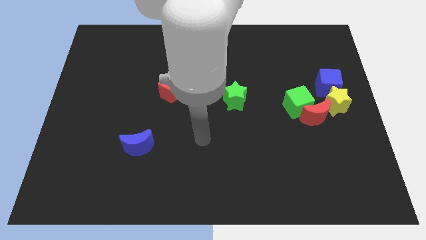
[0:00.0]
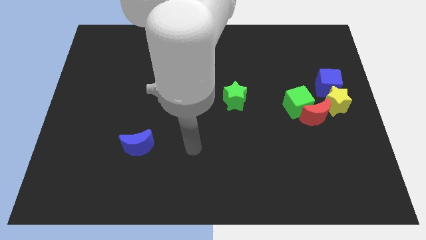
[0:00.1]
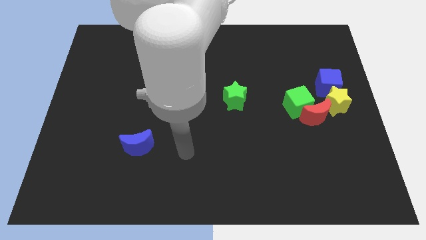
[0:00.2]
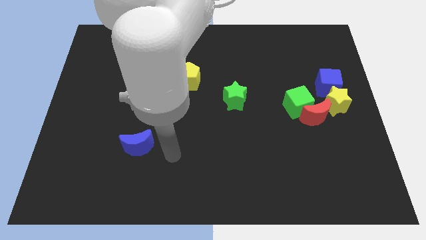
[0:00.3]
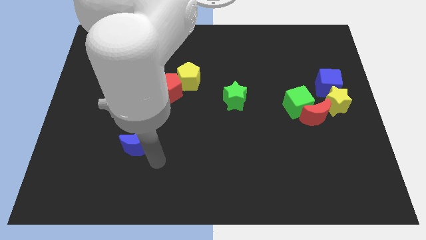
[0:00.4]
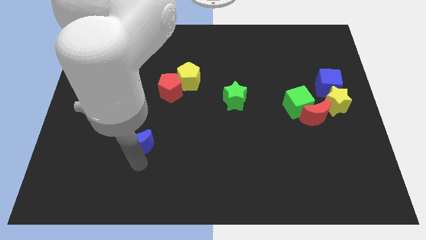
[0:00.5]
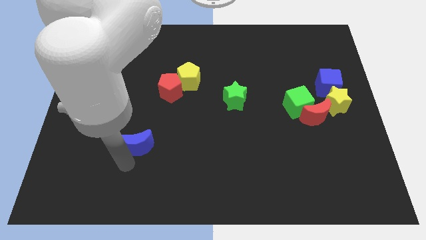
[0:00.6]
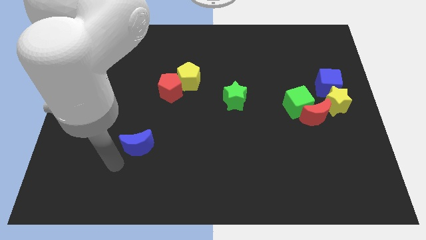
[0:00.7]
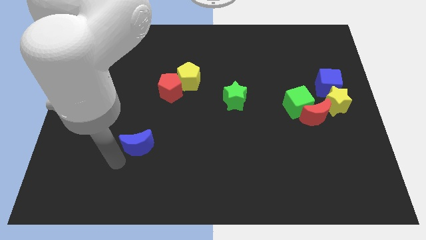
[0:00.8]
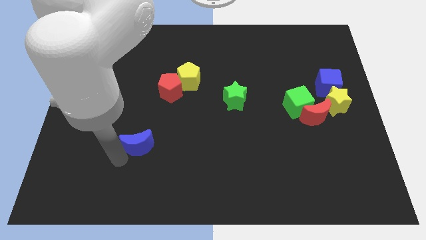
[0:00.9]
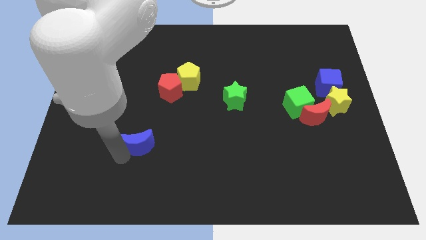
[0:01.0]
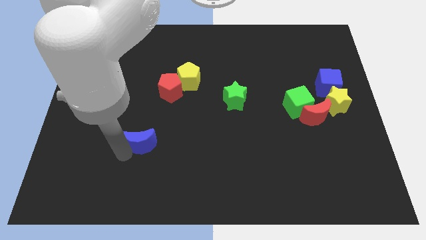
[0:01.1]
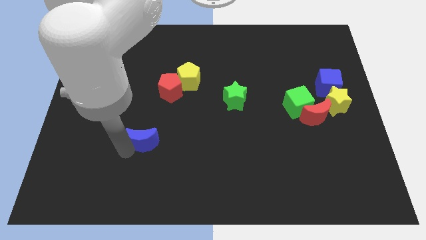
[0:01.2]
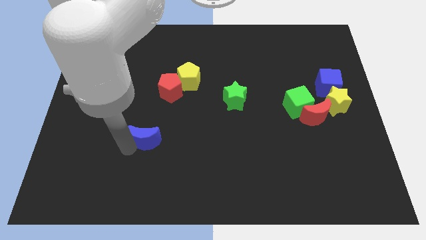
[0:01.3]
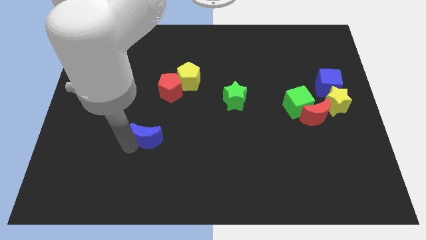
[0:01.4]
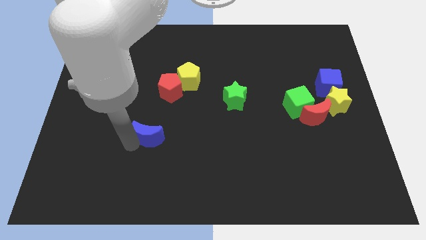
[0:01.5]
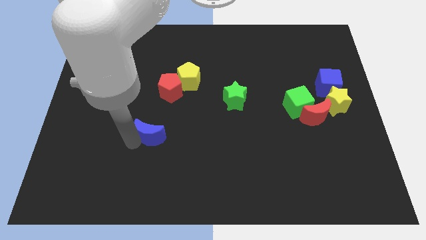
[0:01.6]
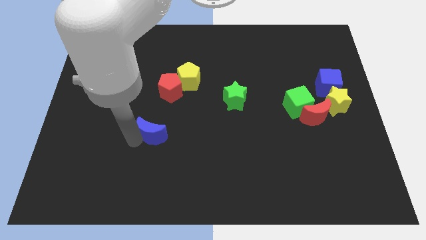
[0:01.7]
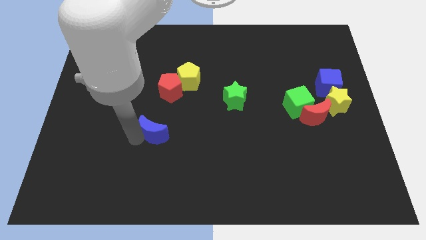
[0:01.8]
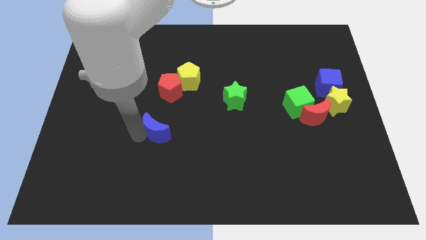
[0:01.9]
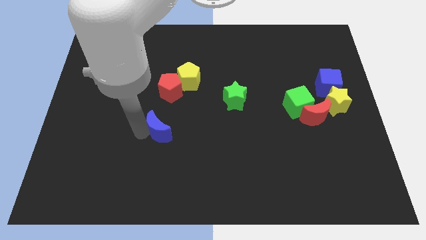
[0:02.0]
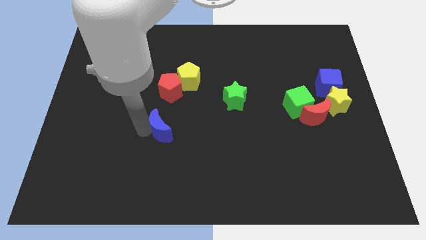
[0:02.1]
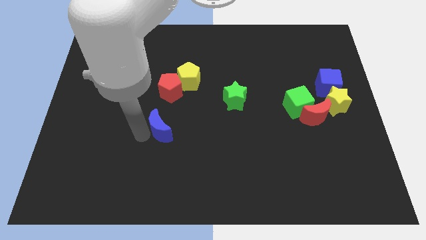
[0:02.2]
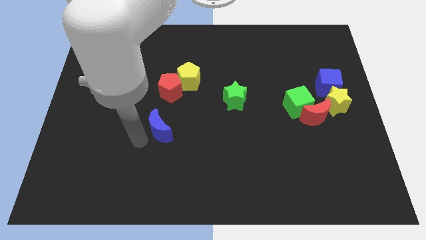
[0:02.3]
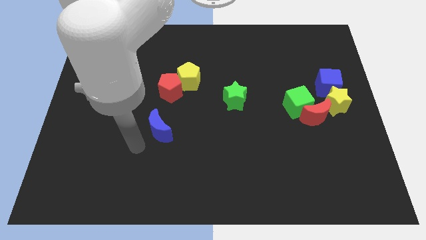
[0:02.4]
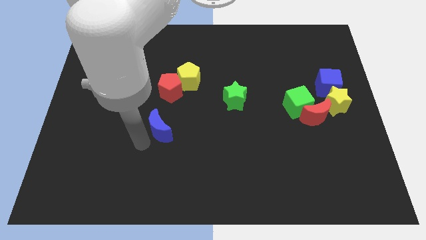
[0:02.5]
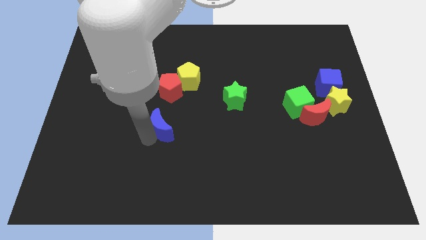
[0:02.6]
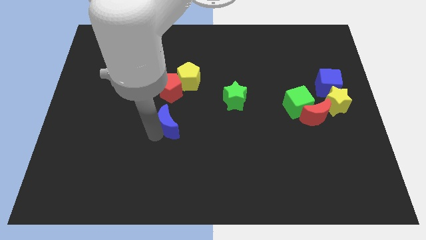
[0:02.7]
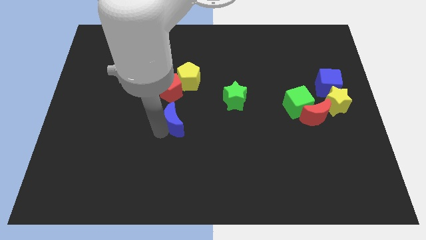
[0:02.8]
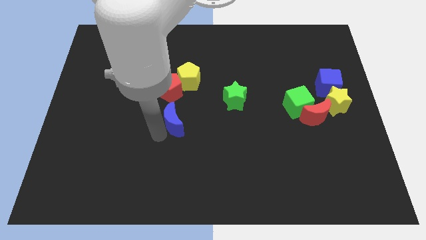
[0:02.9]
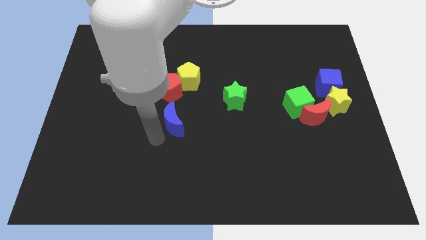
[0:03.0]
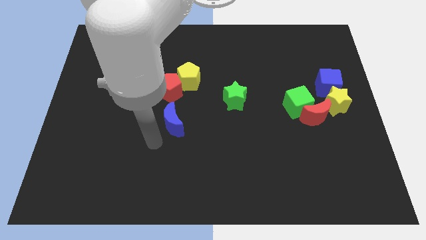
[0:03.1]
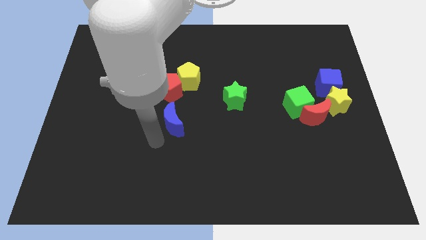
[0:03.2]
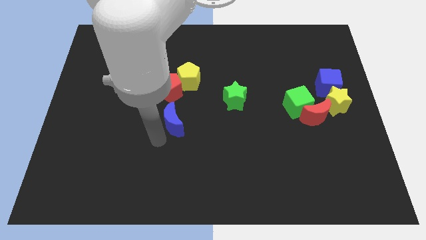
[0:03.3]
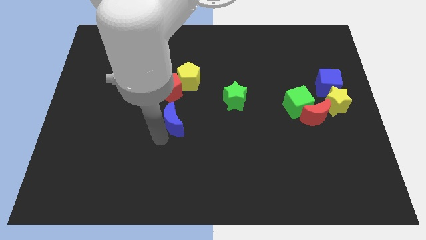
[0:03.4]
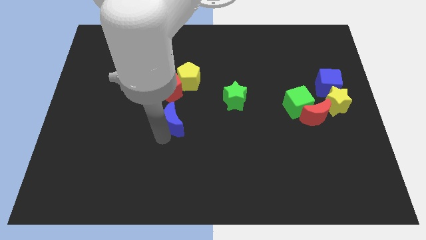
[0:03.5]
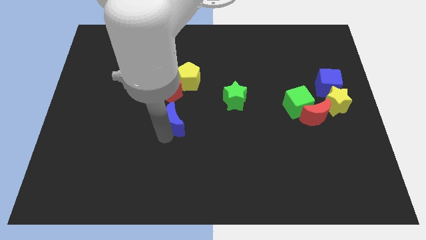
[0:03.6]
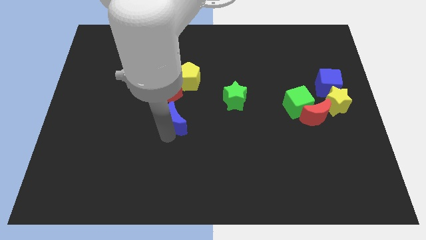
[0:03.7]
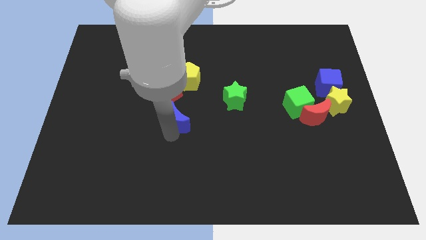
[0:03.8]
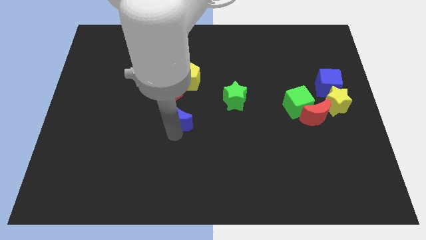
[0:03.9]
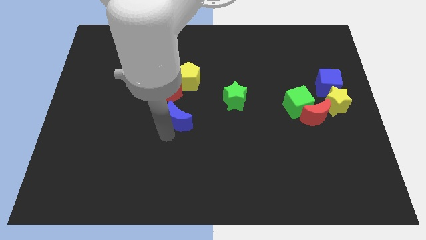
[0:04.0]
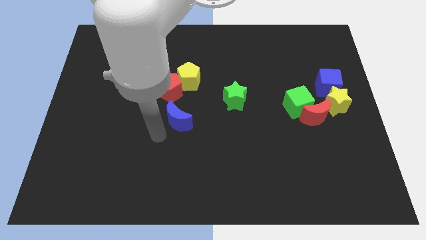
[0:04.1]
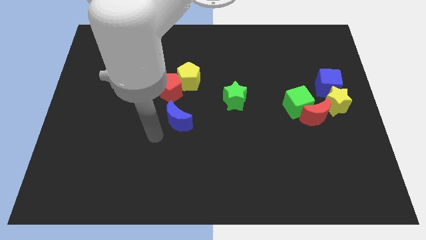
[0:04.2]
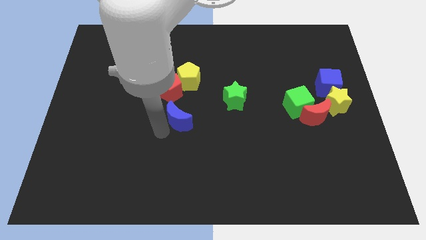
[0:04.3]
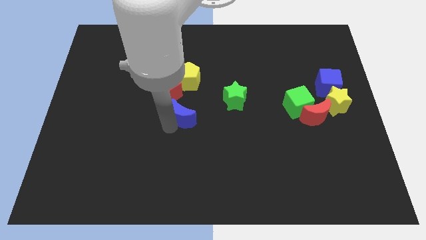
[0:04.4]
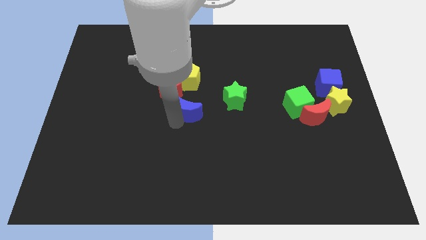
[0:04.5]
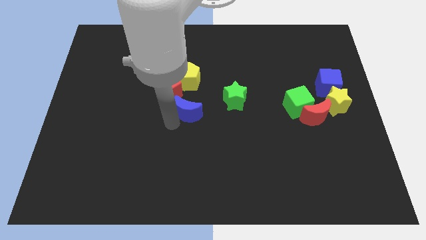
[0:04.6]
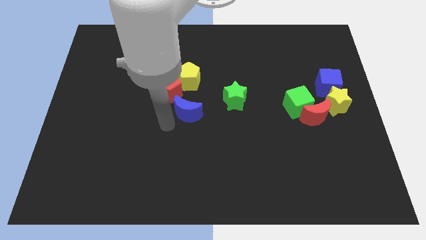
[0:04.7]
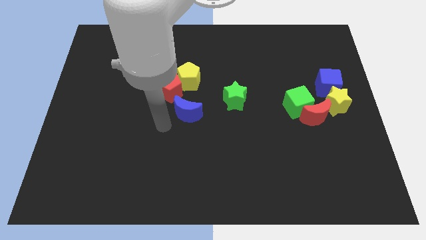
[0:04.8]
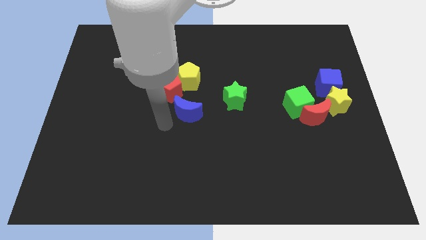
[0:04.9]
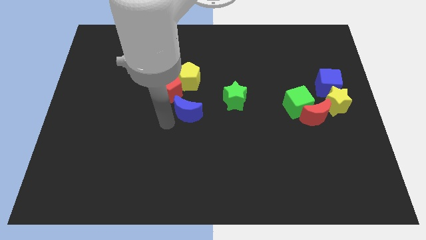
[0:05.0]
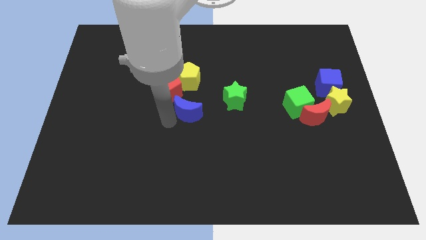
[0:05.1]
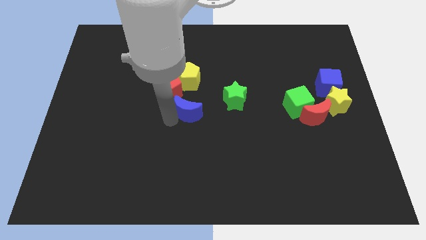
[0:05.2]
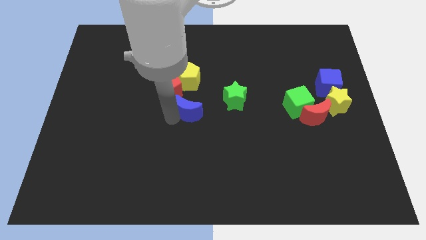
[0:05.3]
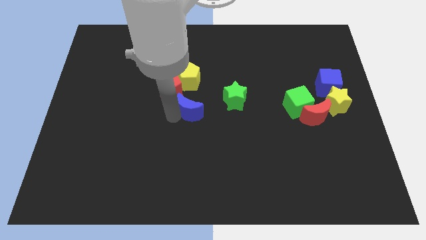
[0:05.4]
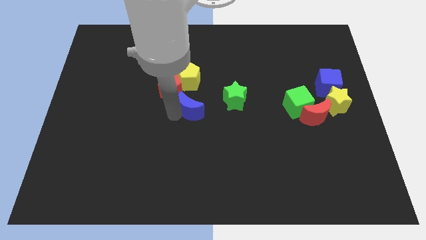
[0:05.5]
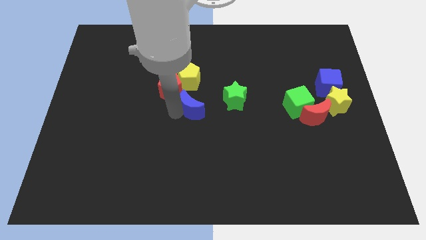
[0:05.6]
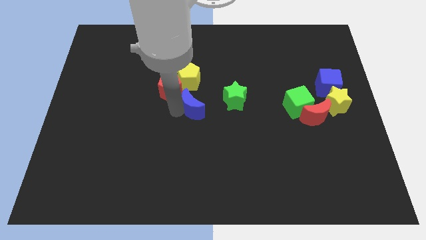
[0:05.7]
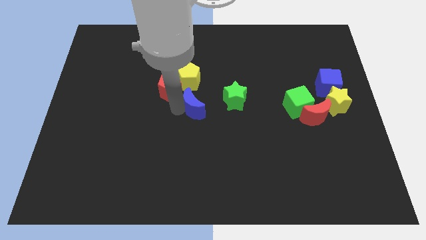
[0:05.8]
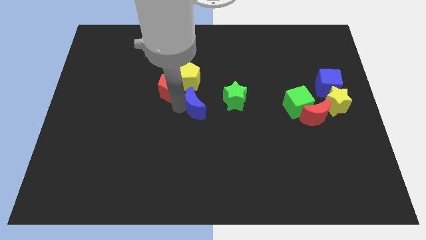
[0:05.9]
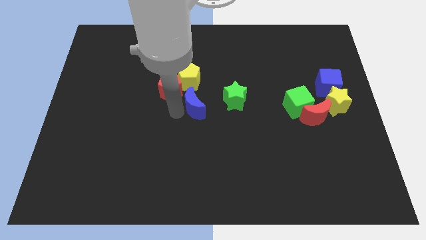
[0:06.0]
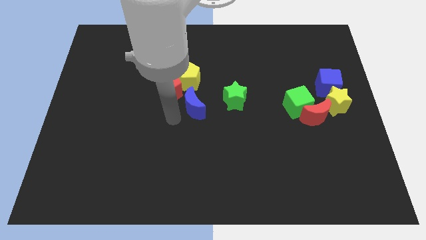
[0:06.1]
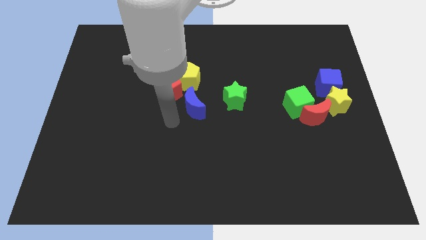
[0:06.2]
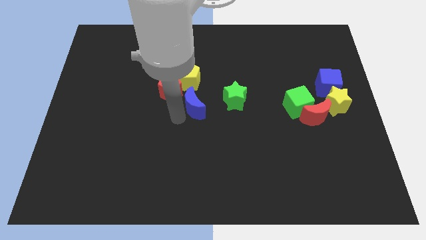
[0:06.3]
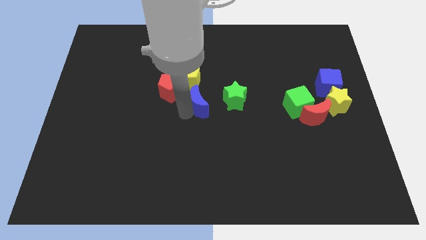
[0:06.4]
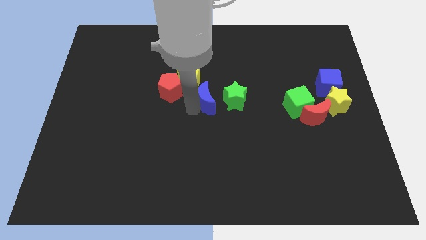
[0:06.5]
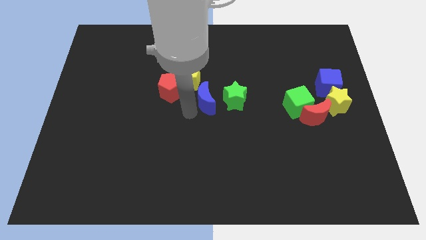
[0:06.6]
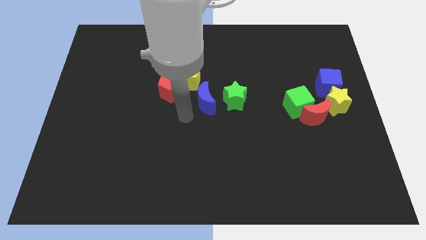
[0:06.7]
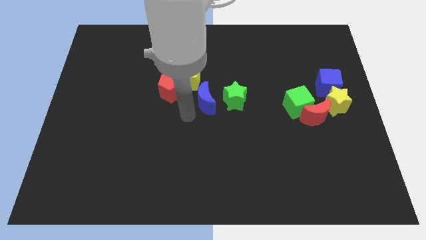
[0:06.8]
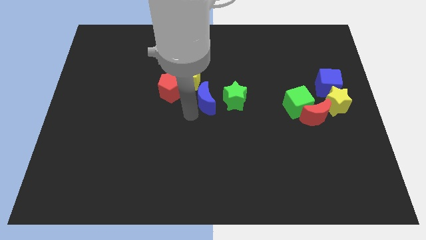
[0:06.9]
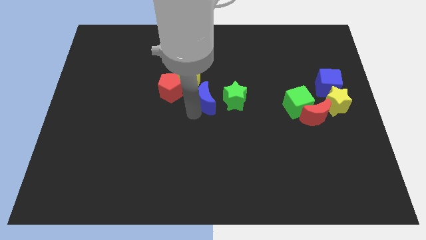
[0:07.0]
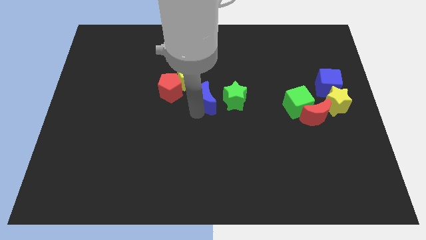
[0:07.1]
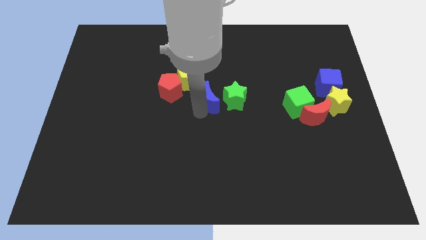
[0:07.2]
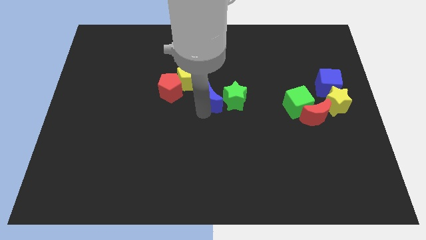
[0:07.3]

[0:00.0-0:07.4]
slide the blue moon up and right

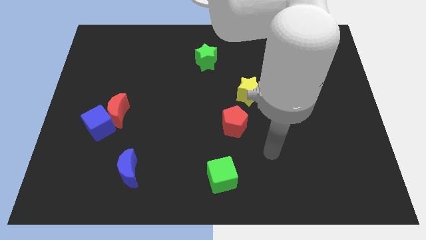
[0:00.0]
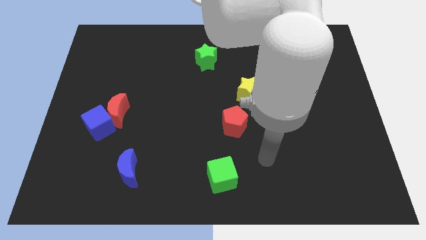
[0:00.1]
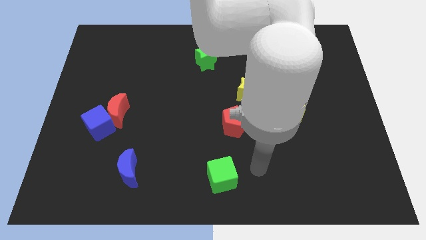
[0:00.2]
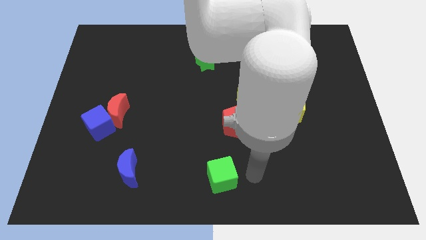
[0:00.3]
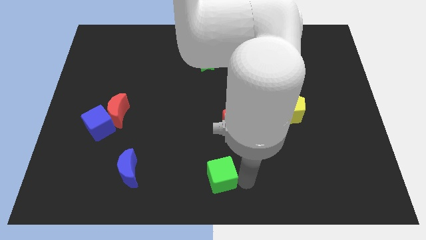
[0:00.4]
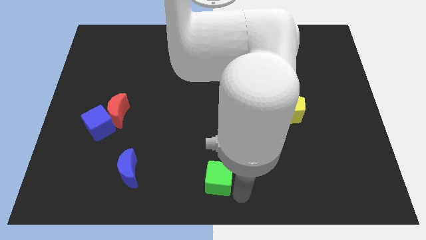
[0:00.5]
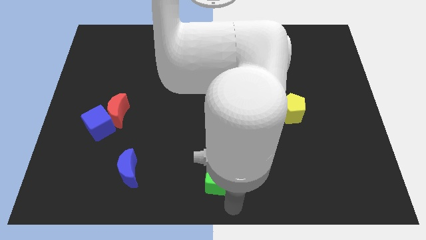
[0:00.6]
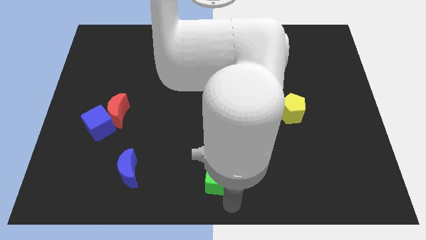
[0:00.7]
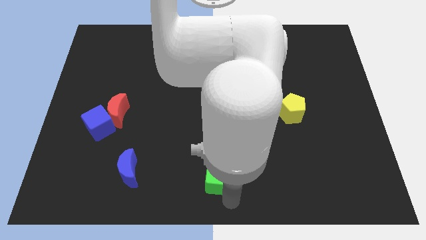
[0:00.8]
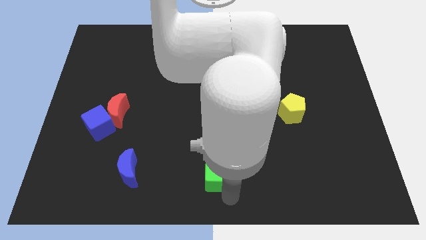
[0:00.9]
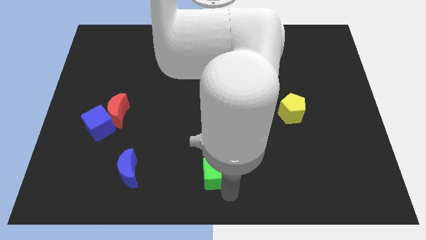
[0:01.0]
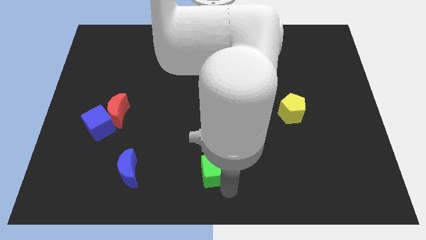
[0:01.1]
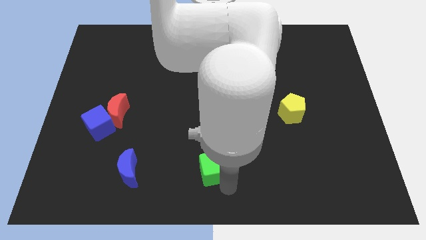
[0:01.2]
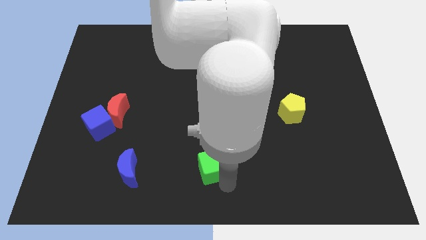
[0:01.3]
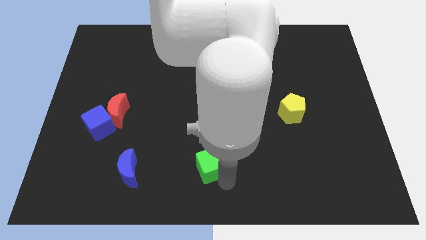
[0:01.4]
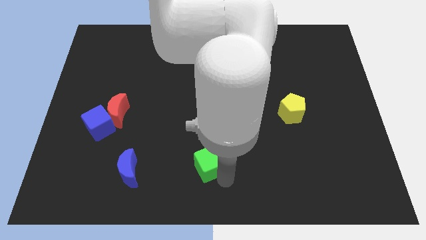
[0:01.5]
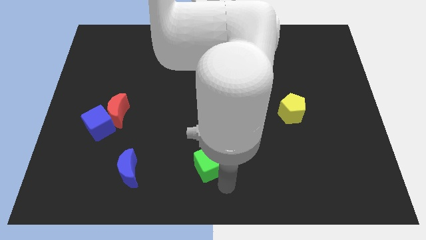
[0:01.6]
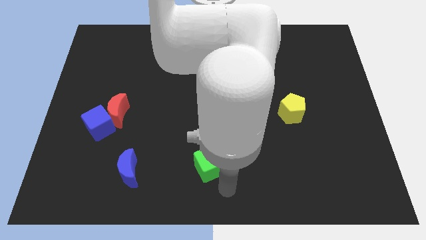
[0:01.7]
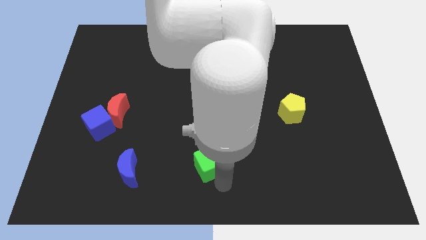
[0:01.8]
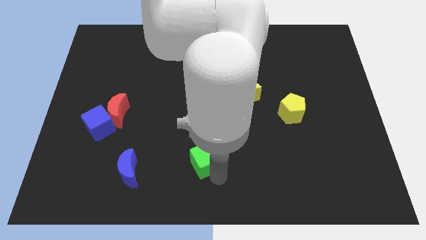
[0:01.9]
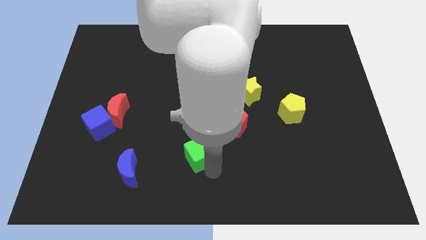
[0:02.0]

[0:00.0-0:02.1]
push the green cube upwards and left diagonally a little bit
